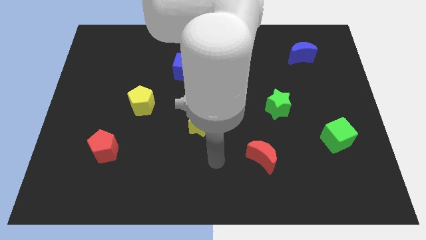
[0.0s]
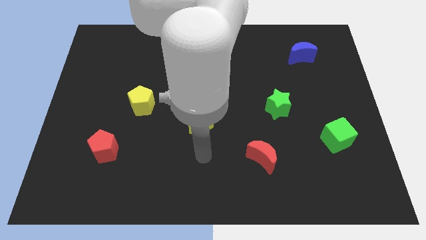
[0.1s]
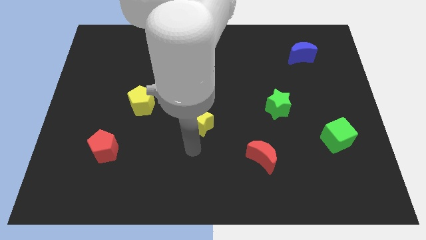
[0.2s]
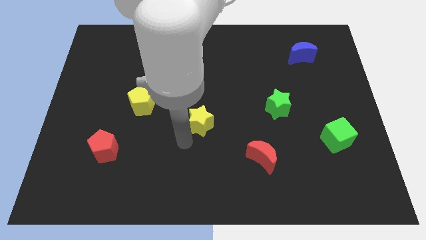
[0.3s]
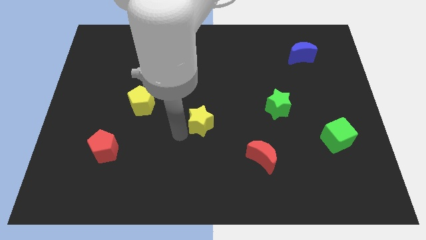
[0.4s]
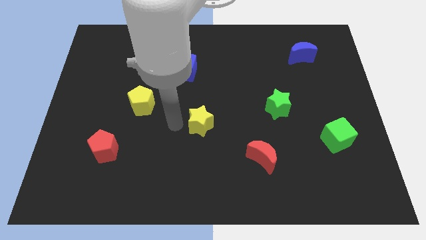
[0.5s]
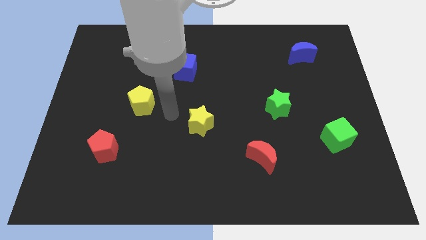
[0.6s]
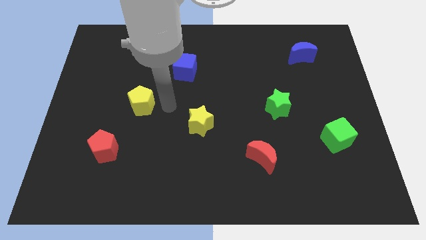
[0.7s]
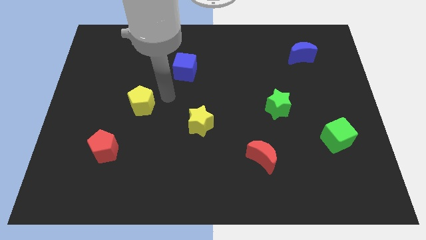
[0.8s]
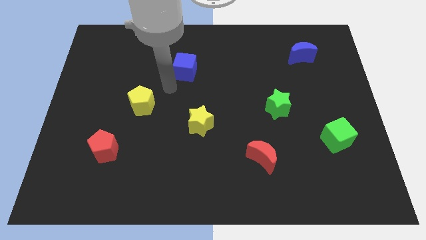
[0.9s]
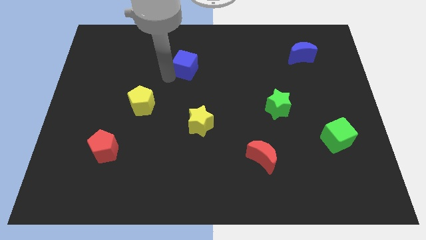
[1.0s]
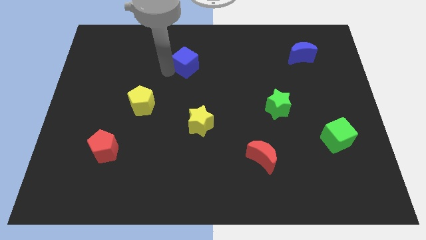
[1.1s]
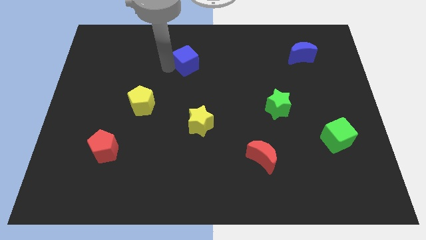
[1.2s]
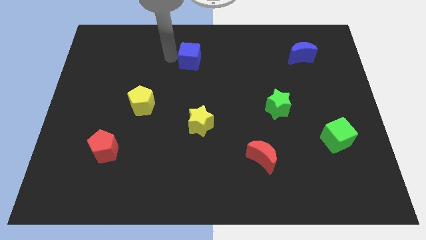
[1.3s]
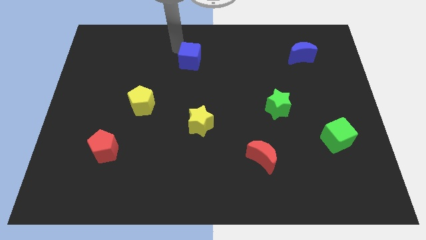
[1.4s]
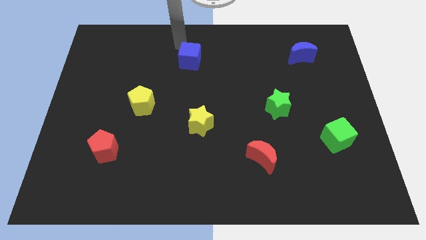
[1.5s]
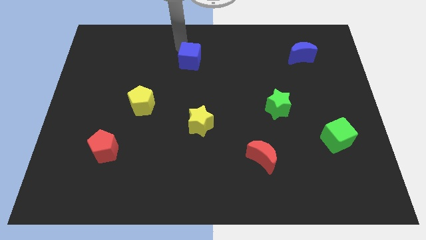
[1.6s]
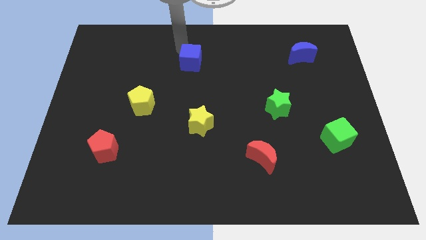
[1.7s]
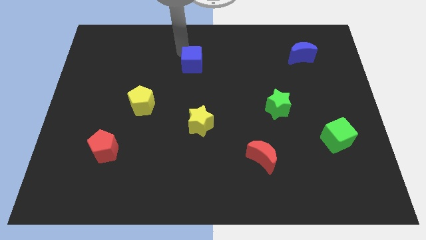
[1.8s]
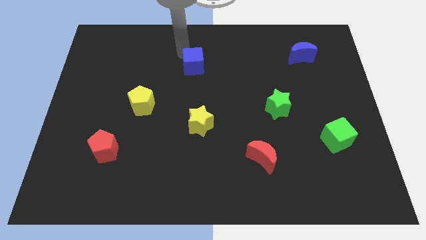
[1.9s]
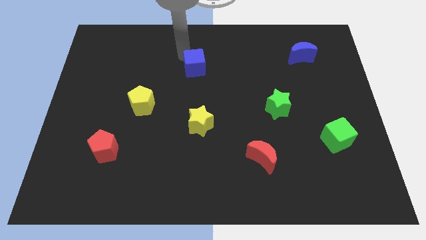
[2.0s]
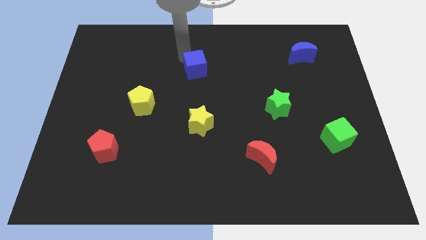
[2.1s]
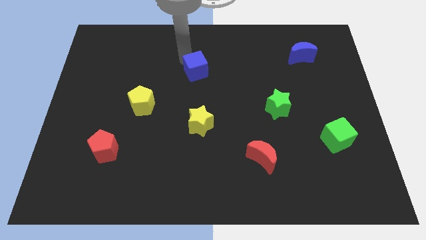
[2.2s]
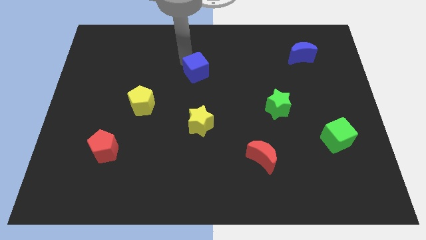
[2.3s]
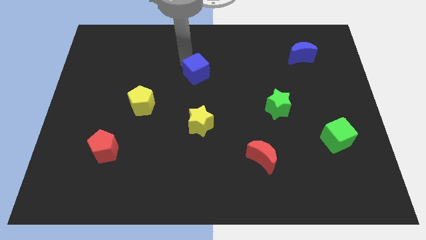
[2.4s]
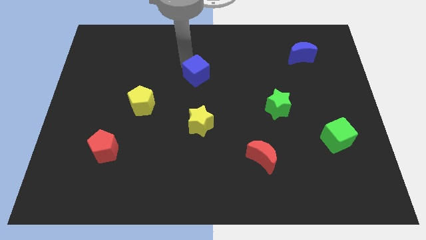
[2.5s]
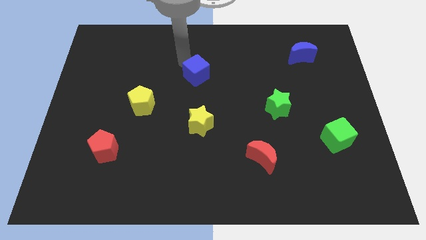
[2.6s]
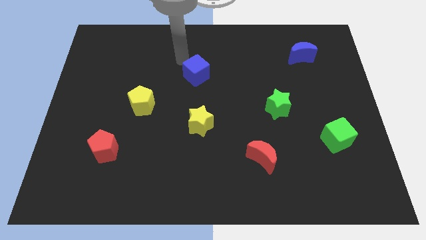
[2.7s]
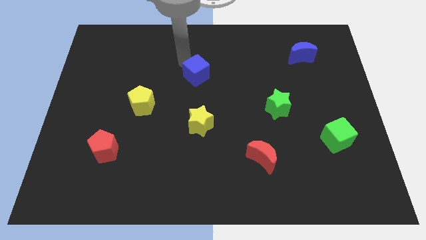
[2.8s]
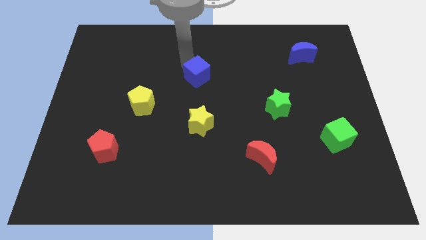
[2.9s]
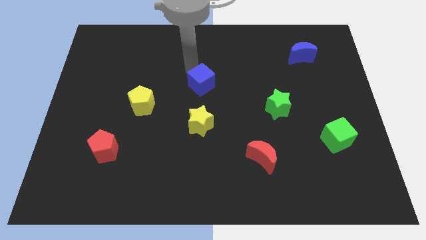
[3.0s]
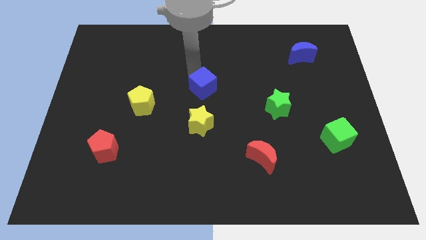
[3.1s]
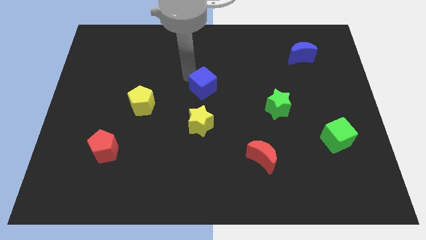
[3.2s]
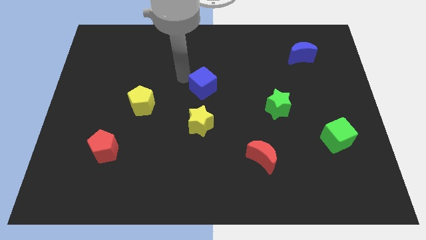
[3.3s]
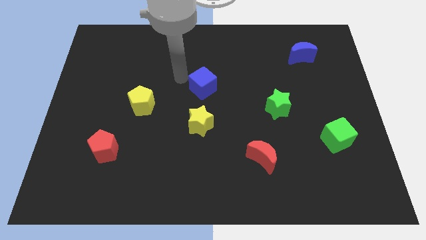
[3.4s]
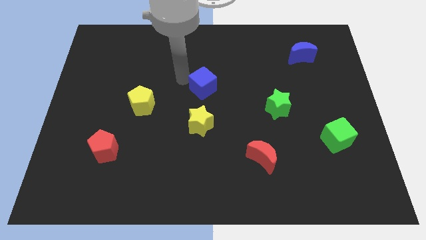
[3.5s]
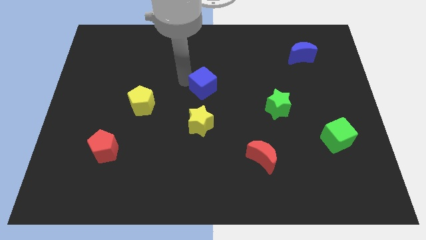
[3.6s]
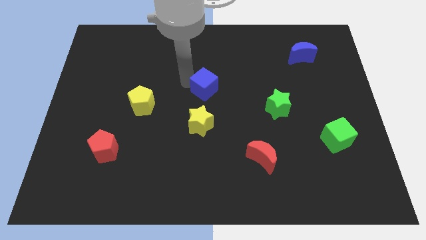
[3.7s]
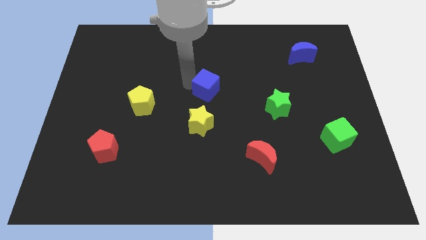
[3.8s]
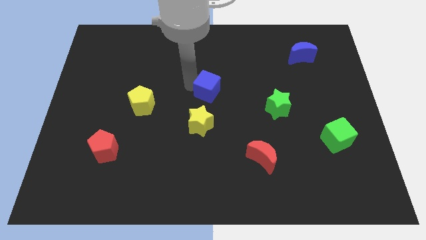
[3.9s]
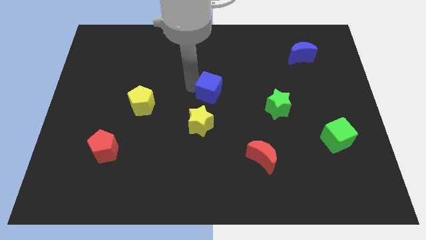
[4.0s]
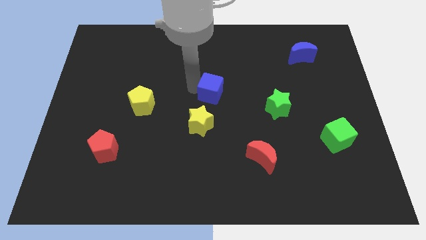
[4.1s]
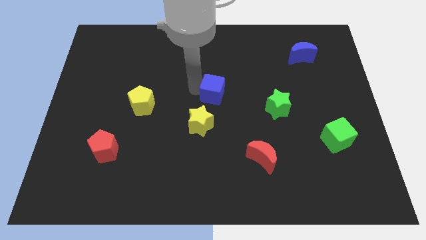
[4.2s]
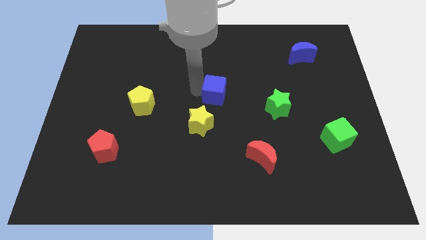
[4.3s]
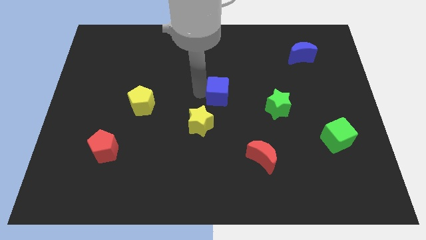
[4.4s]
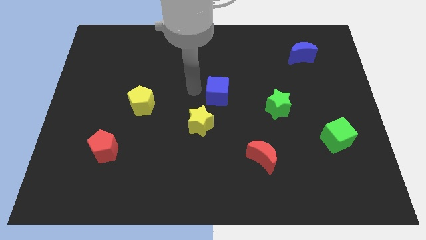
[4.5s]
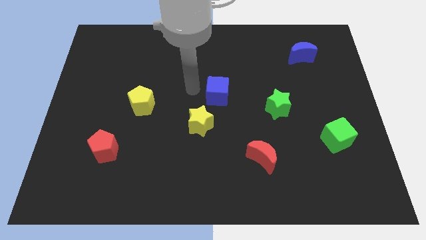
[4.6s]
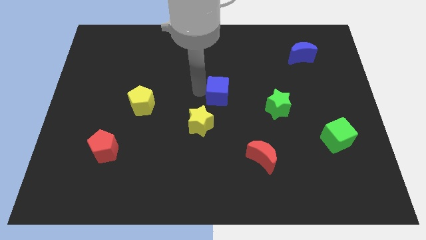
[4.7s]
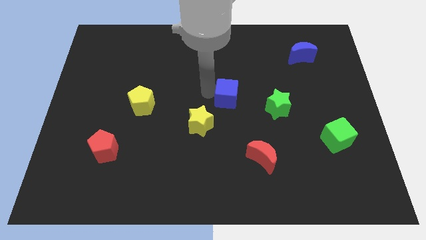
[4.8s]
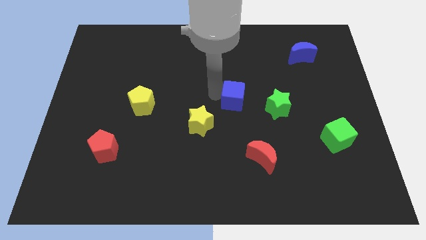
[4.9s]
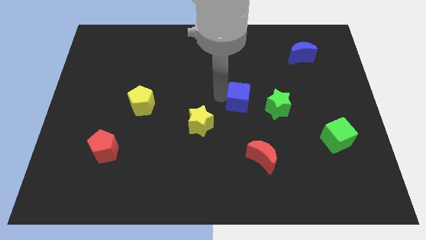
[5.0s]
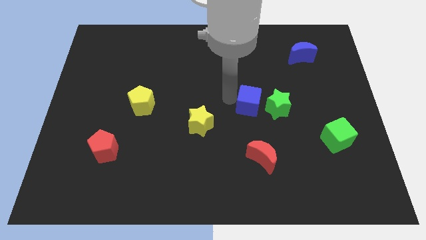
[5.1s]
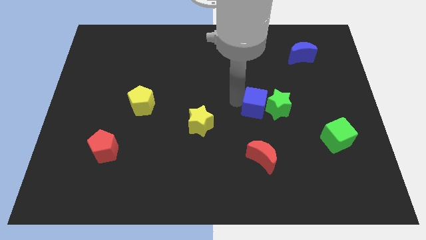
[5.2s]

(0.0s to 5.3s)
put the blue cube close to the green star

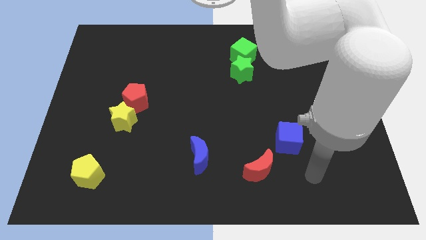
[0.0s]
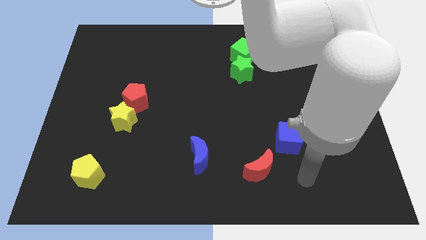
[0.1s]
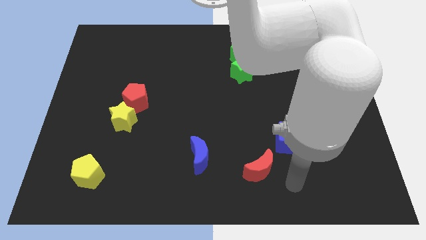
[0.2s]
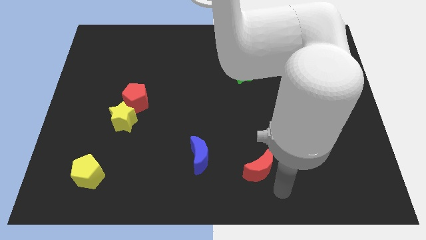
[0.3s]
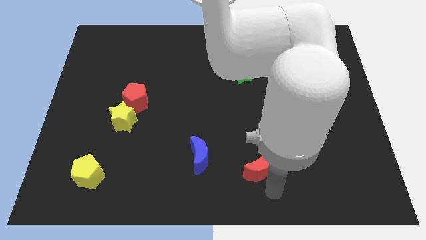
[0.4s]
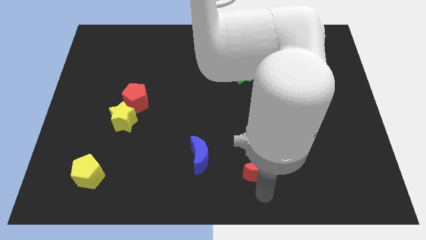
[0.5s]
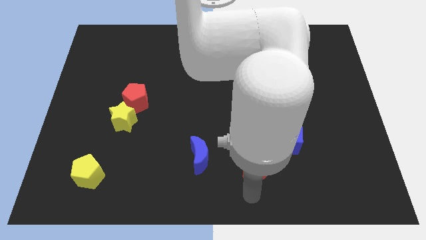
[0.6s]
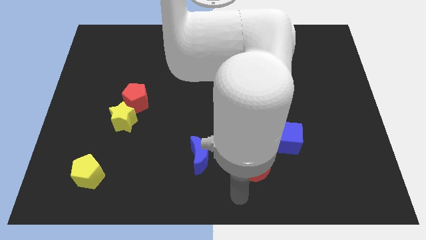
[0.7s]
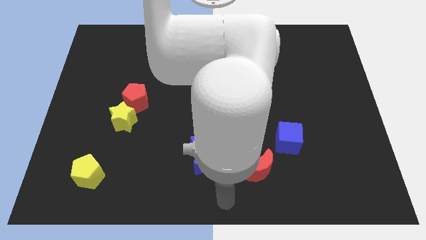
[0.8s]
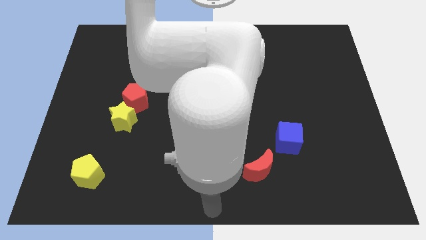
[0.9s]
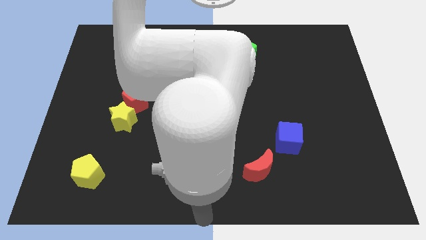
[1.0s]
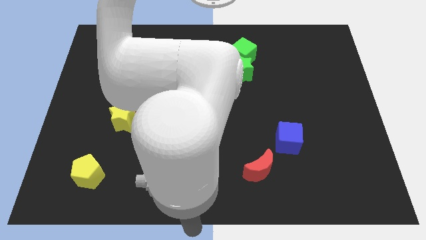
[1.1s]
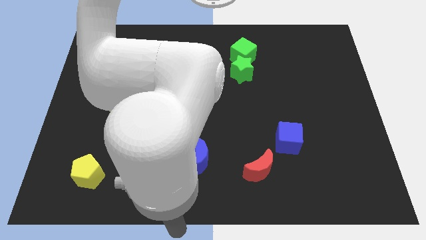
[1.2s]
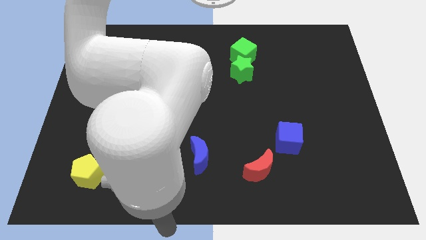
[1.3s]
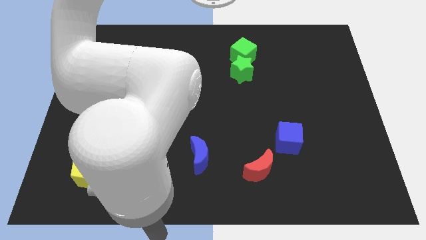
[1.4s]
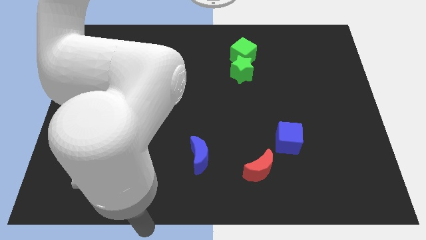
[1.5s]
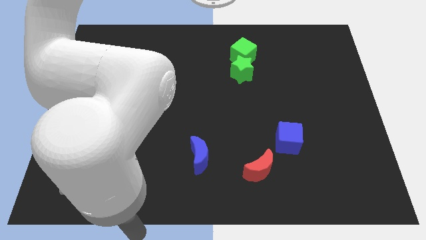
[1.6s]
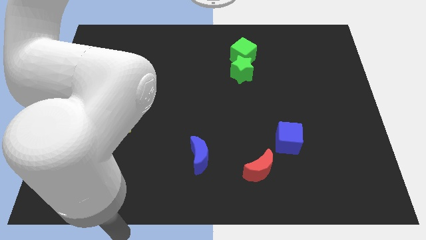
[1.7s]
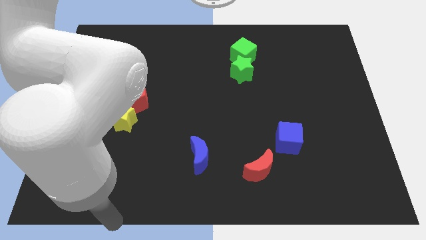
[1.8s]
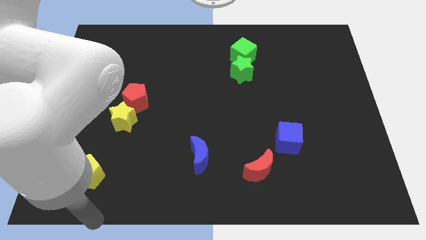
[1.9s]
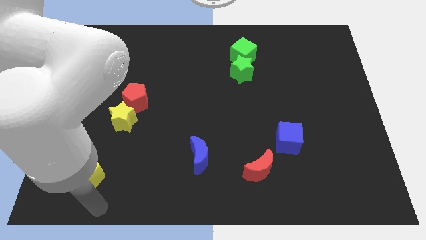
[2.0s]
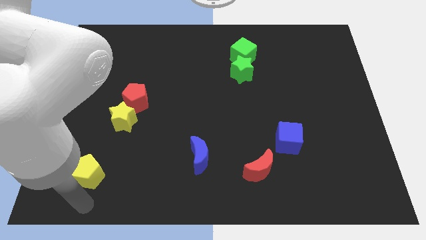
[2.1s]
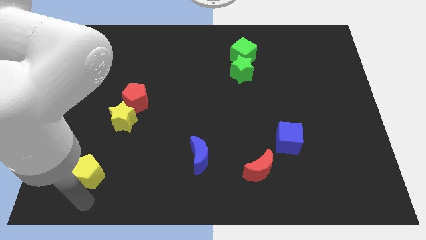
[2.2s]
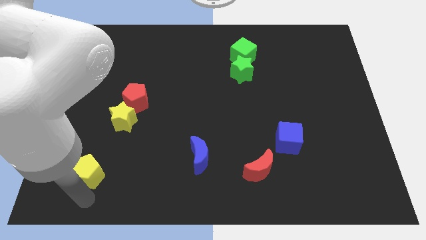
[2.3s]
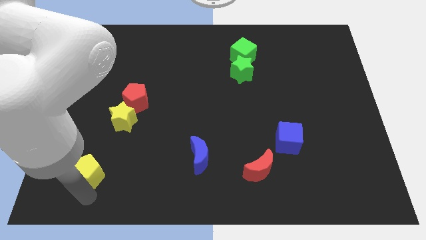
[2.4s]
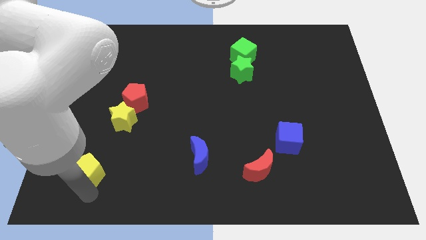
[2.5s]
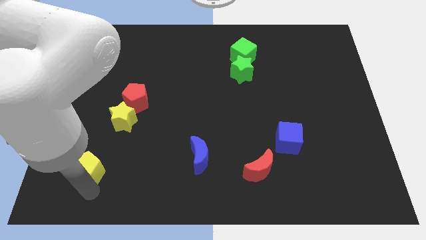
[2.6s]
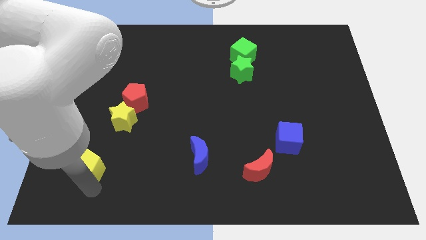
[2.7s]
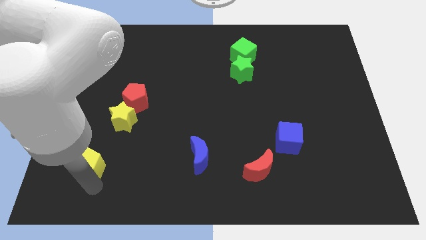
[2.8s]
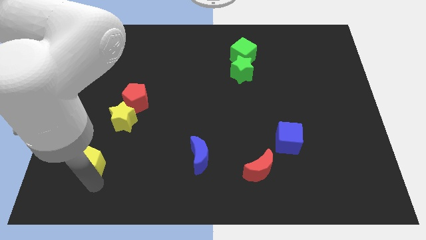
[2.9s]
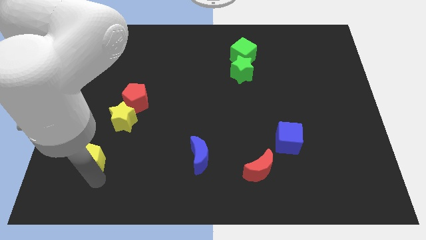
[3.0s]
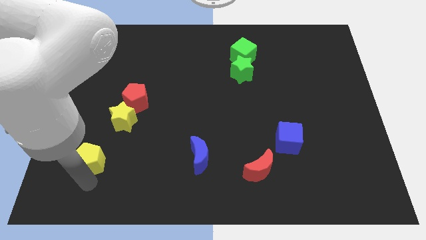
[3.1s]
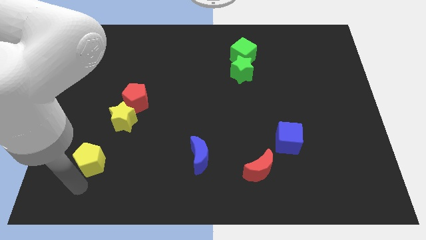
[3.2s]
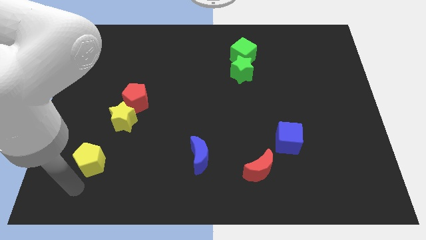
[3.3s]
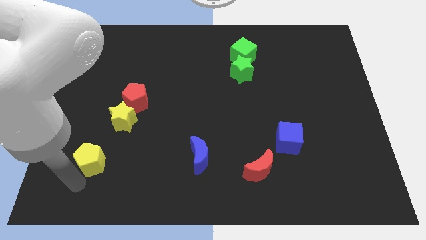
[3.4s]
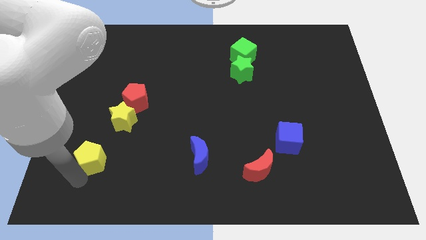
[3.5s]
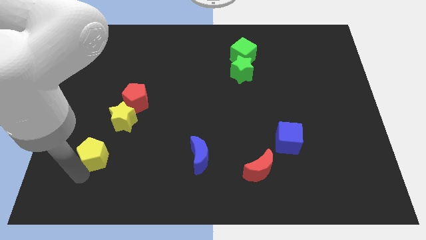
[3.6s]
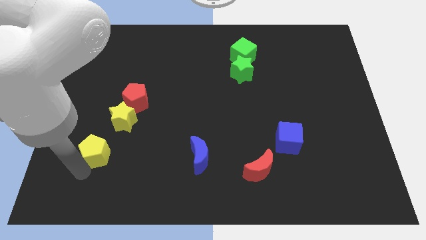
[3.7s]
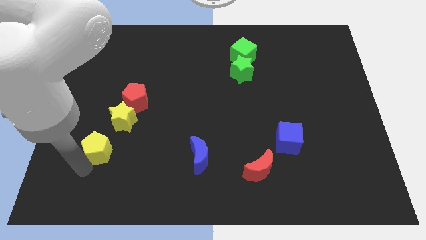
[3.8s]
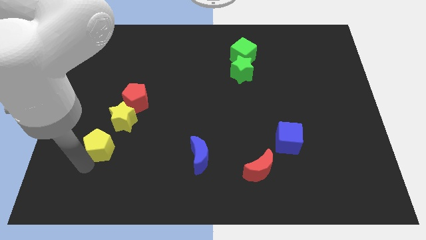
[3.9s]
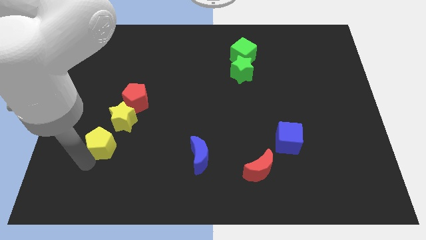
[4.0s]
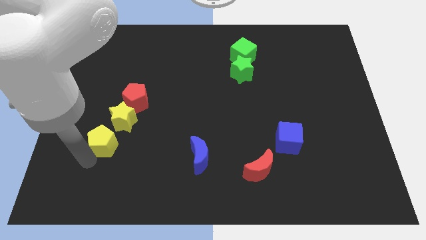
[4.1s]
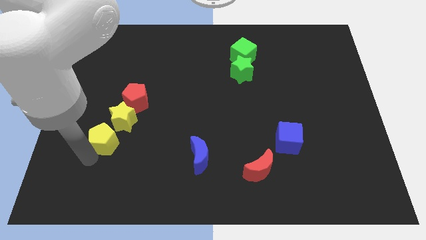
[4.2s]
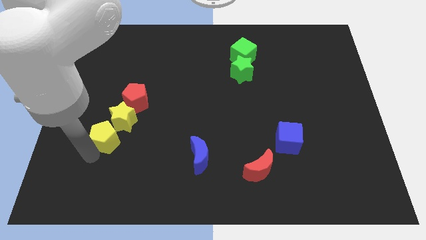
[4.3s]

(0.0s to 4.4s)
move the yellow pentagon to the yellow star
